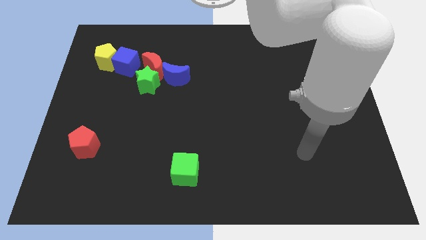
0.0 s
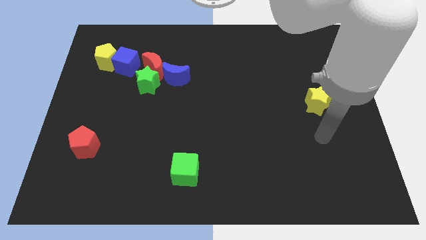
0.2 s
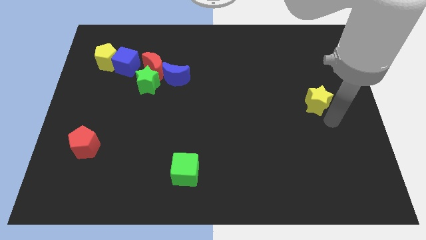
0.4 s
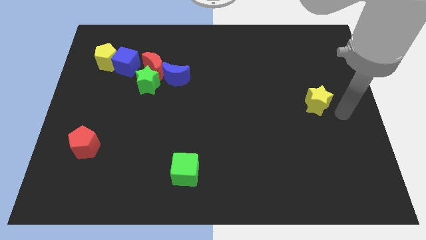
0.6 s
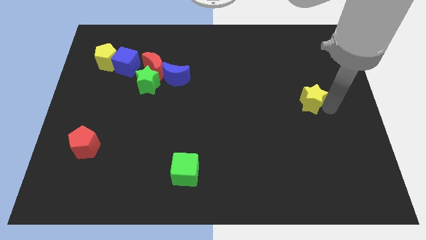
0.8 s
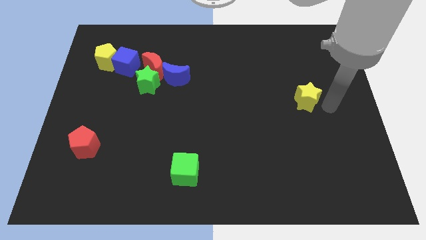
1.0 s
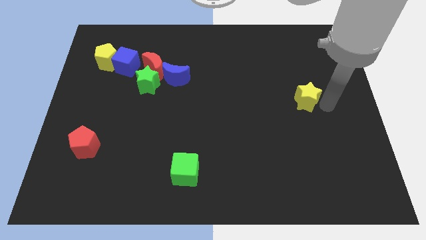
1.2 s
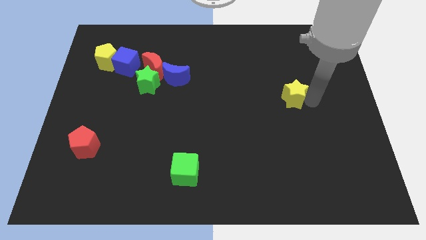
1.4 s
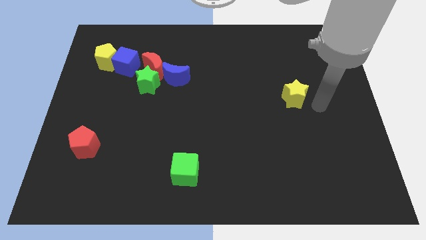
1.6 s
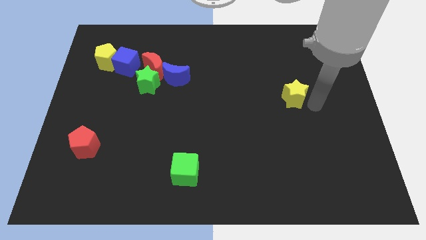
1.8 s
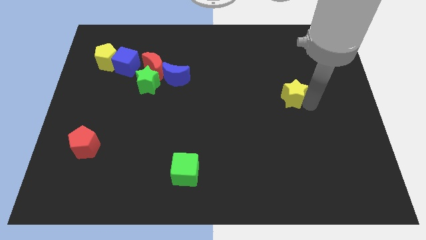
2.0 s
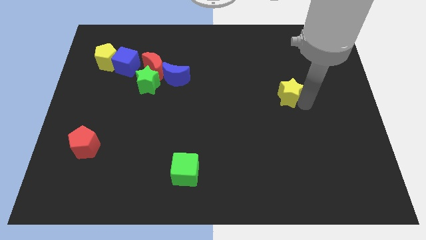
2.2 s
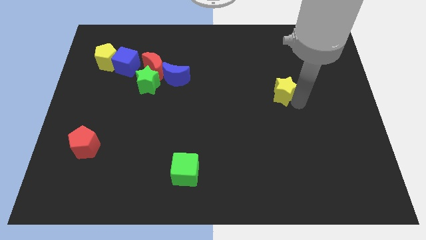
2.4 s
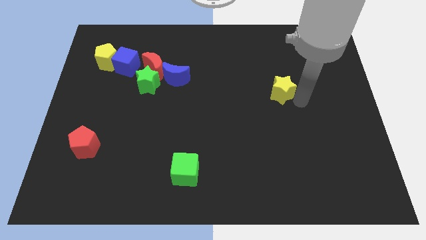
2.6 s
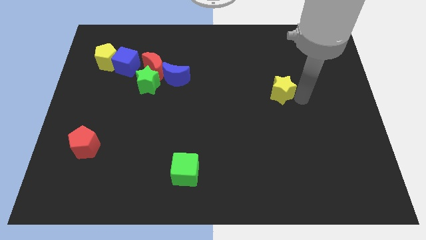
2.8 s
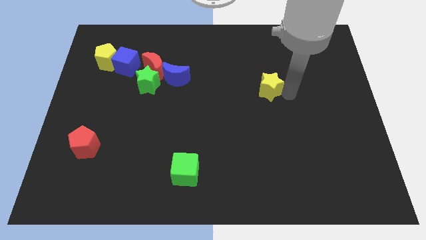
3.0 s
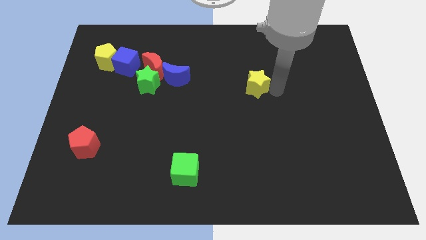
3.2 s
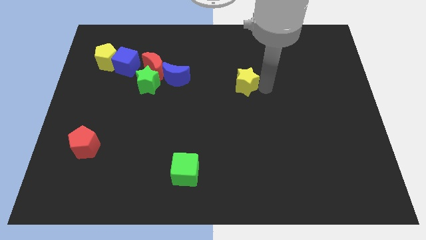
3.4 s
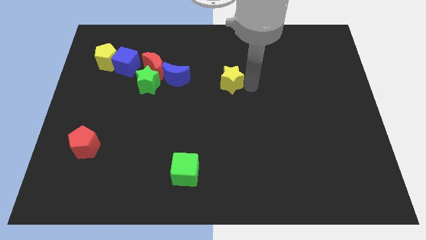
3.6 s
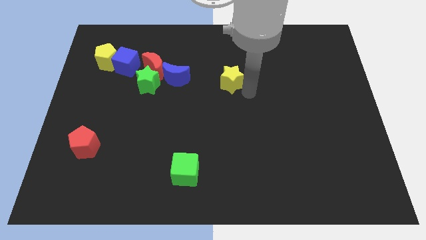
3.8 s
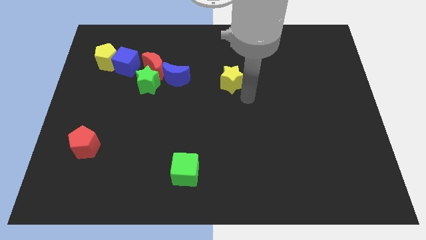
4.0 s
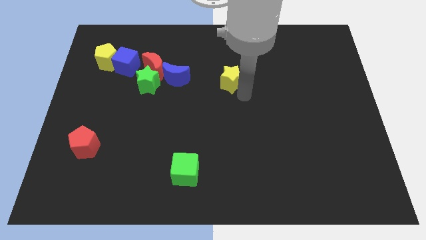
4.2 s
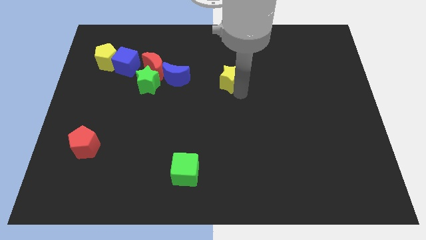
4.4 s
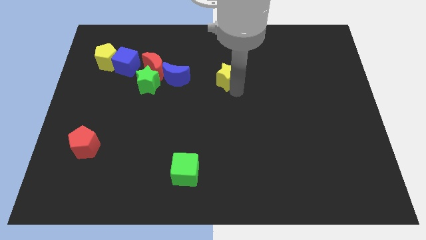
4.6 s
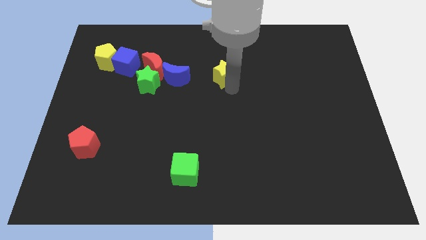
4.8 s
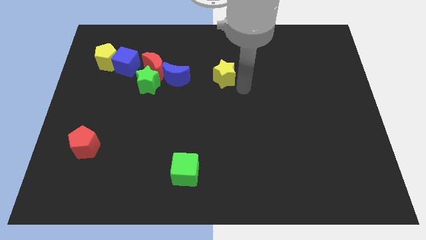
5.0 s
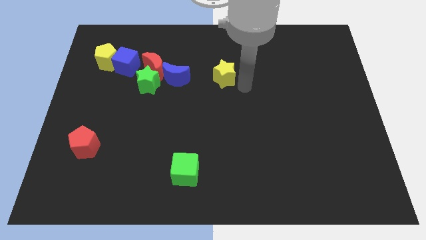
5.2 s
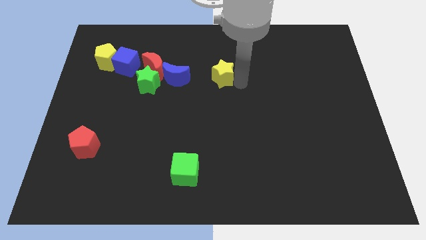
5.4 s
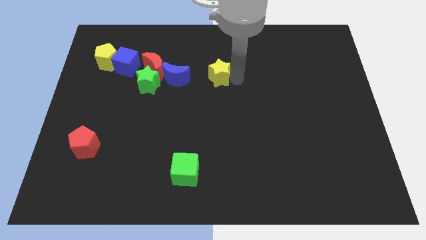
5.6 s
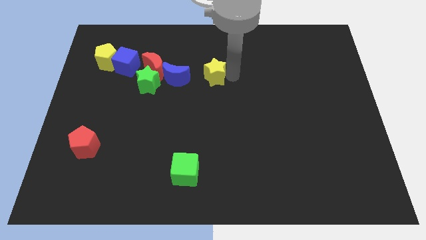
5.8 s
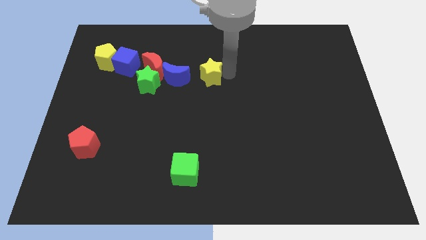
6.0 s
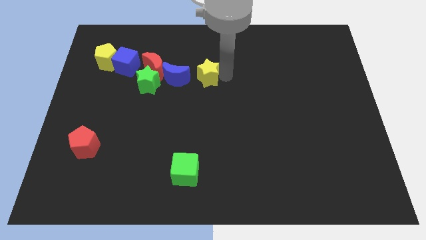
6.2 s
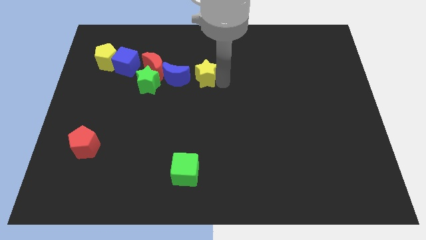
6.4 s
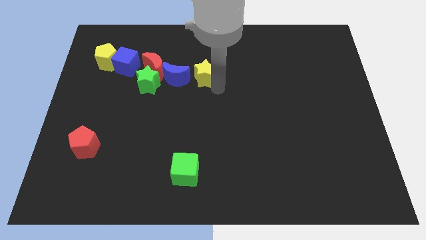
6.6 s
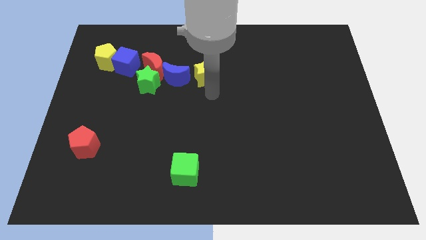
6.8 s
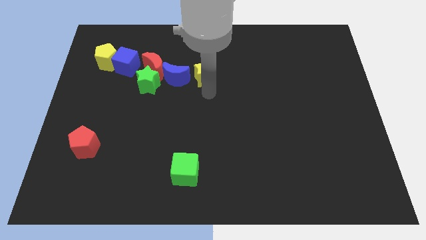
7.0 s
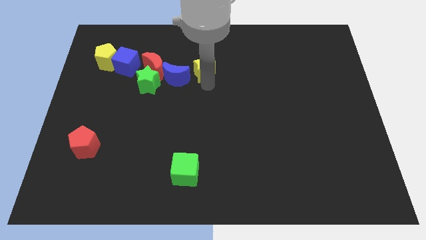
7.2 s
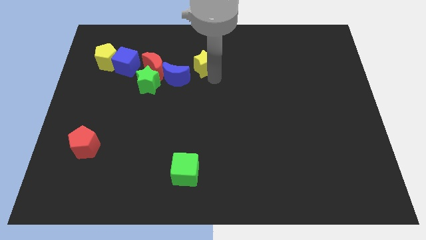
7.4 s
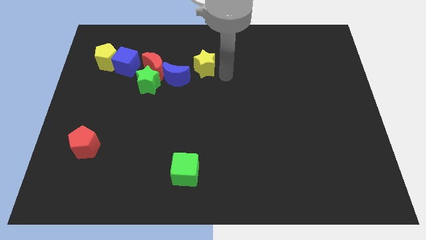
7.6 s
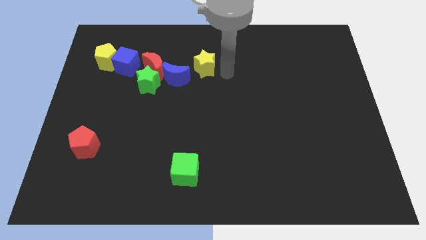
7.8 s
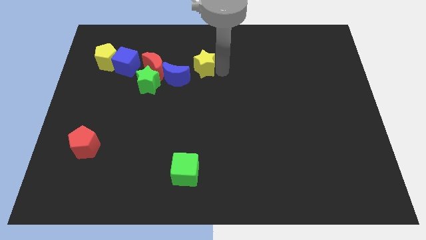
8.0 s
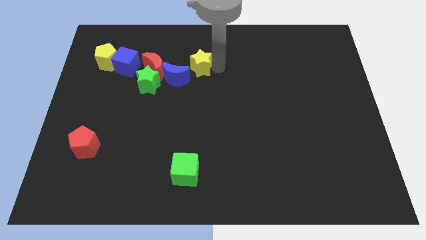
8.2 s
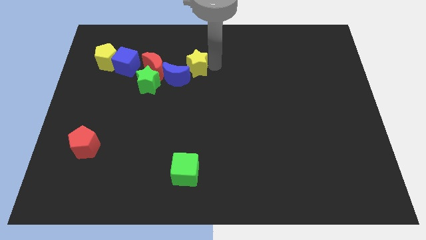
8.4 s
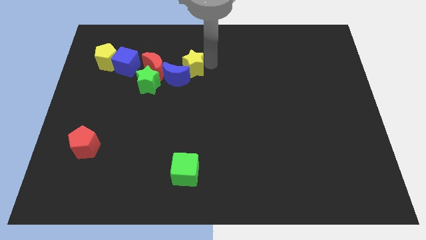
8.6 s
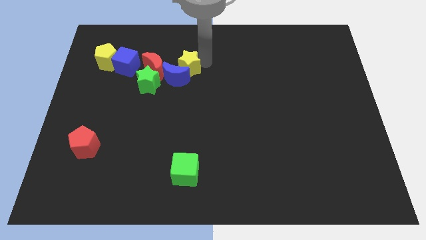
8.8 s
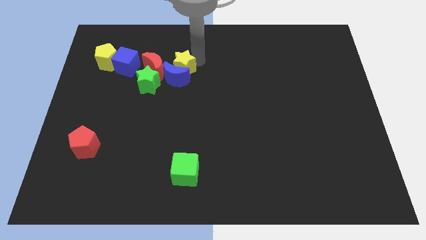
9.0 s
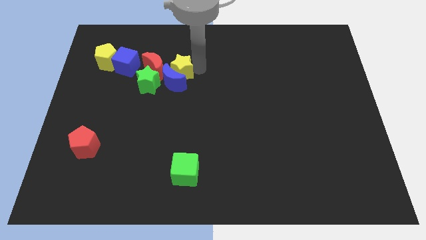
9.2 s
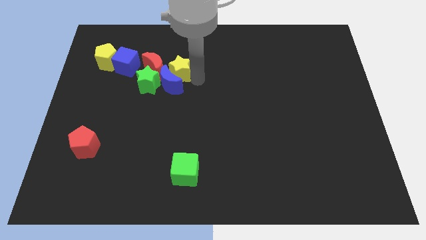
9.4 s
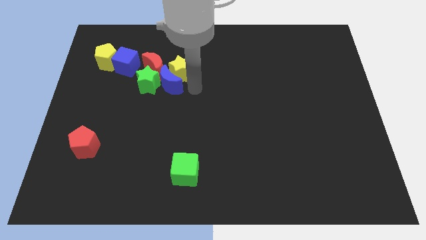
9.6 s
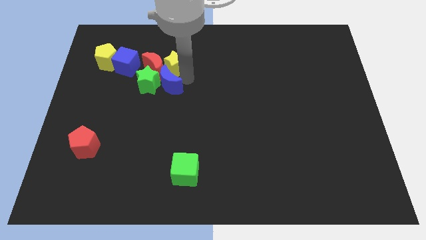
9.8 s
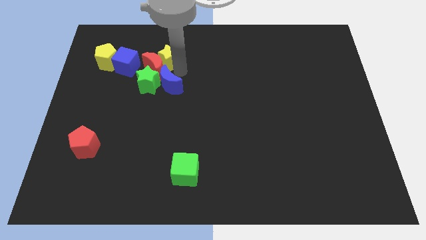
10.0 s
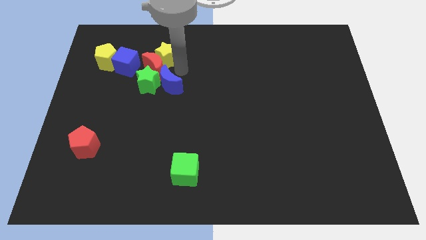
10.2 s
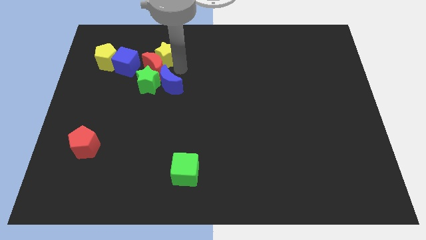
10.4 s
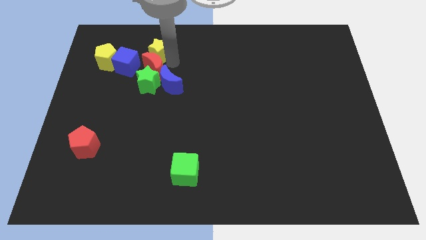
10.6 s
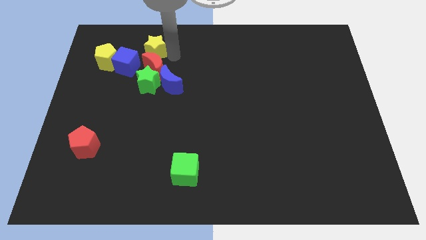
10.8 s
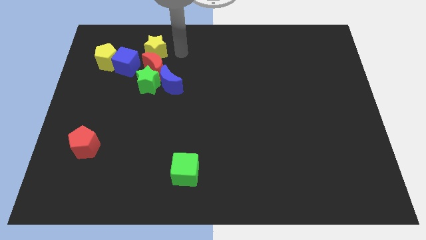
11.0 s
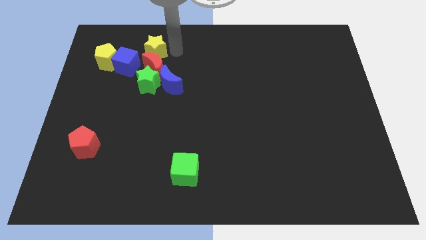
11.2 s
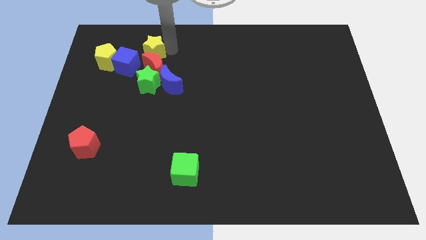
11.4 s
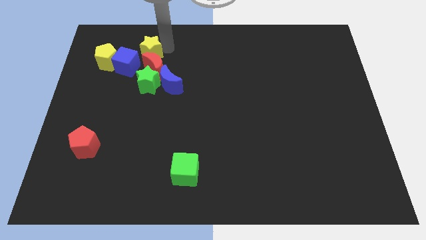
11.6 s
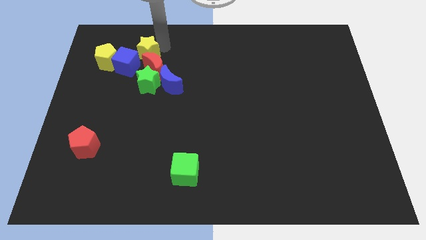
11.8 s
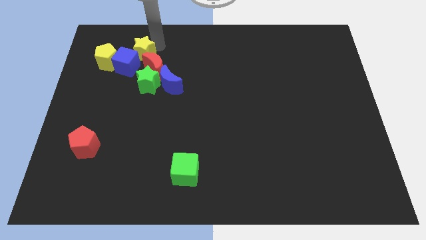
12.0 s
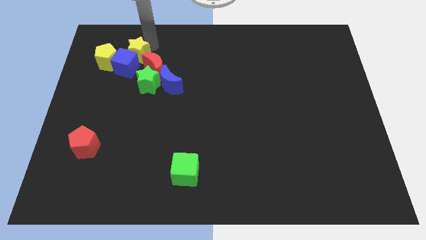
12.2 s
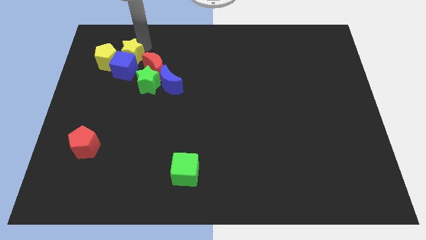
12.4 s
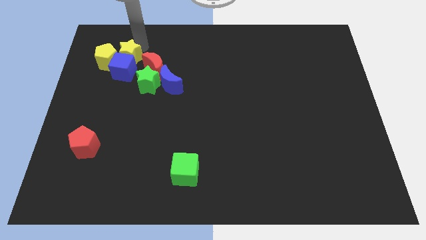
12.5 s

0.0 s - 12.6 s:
move the yellow star towards the yellow pentagon

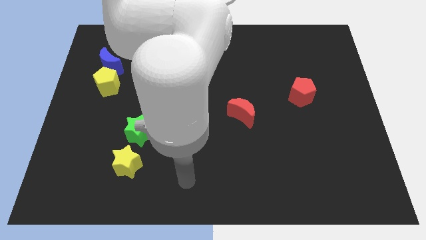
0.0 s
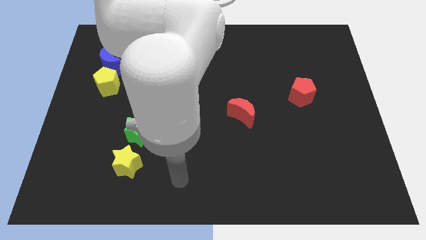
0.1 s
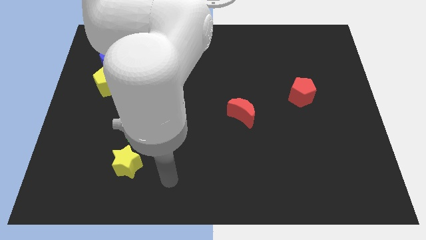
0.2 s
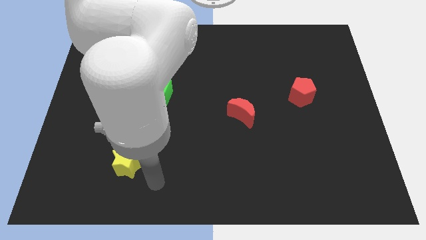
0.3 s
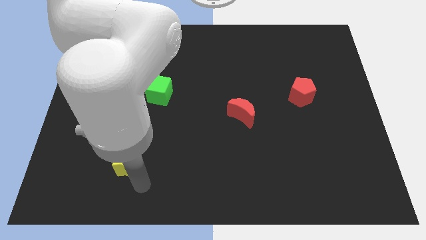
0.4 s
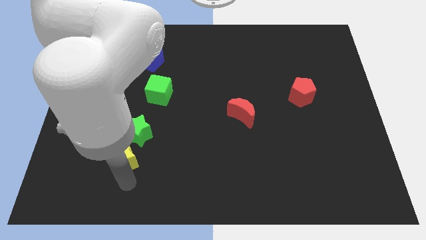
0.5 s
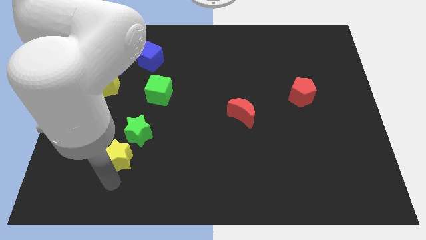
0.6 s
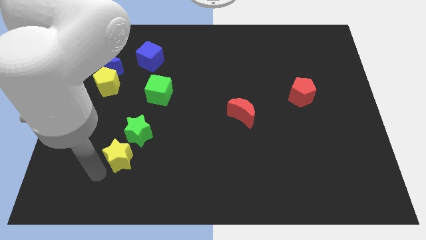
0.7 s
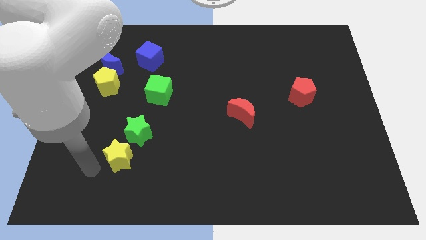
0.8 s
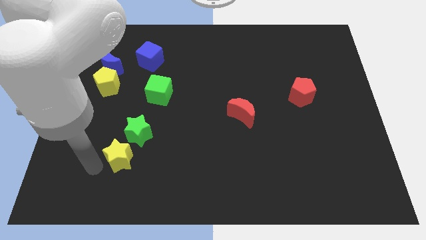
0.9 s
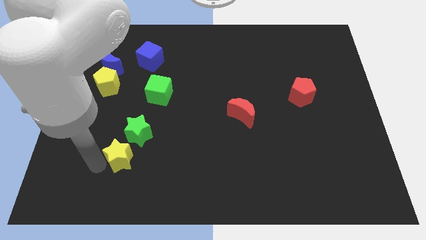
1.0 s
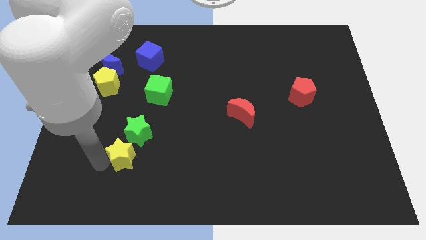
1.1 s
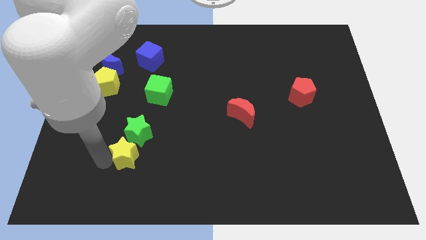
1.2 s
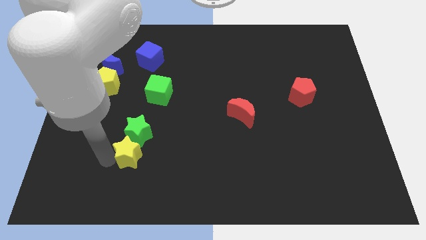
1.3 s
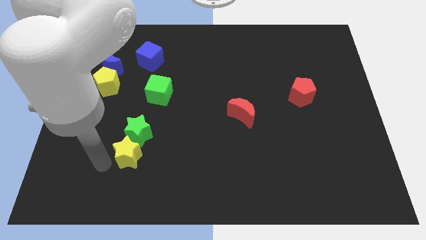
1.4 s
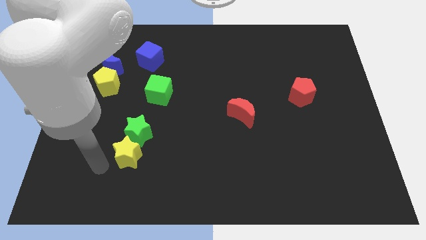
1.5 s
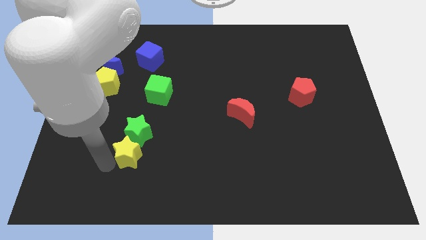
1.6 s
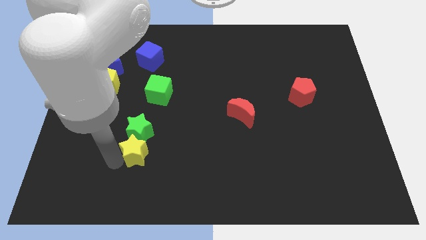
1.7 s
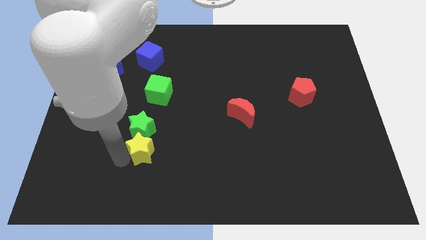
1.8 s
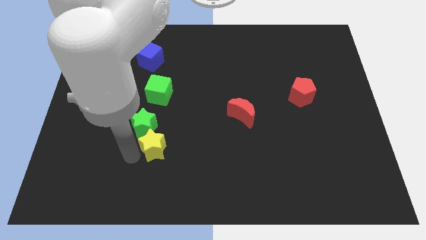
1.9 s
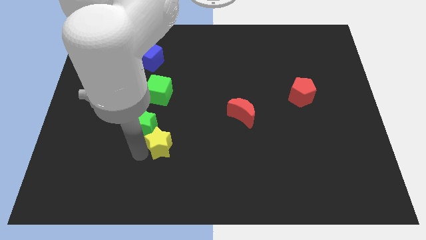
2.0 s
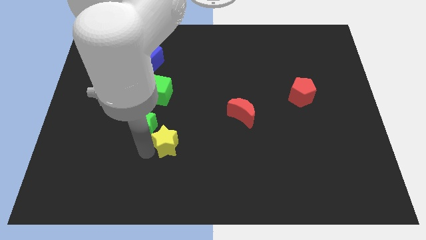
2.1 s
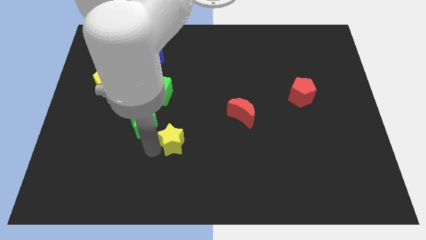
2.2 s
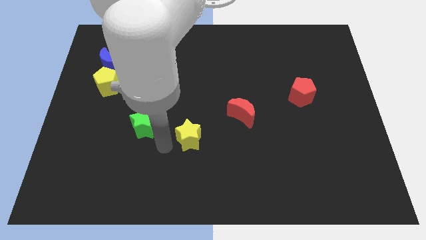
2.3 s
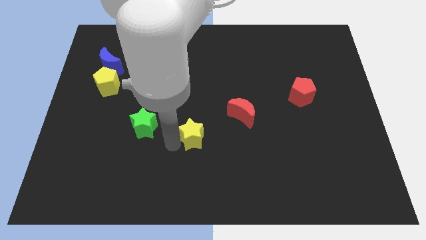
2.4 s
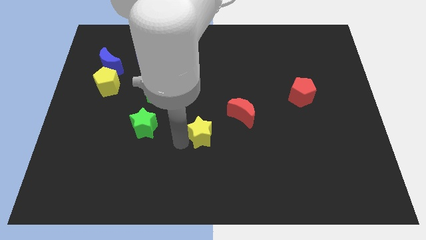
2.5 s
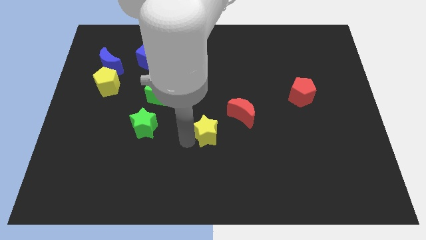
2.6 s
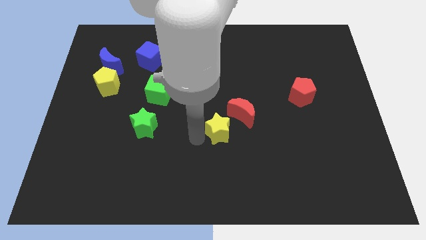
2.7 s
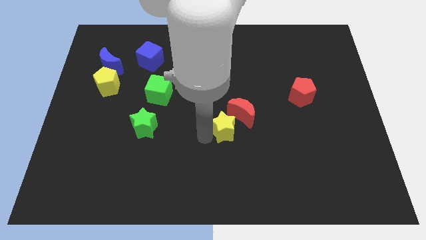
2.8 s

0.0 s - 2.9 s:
move the yellow star next to the red moon
